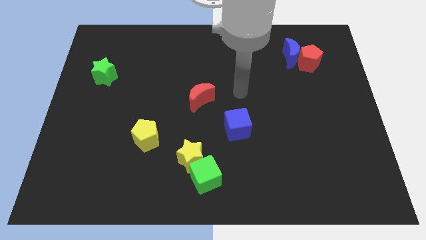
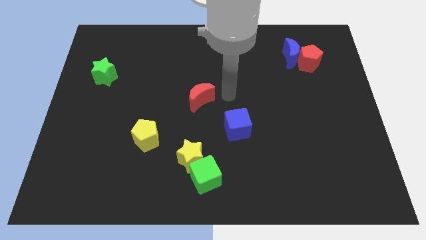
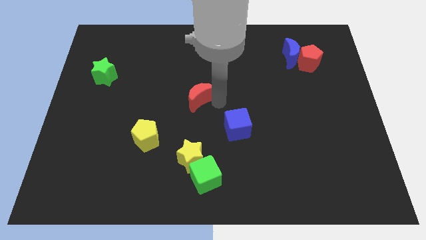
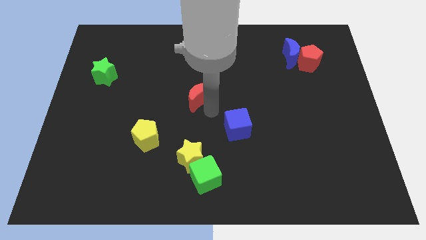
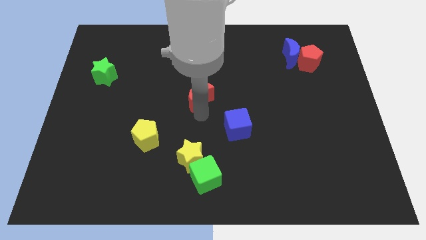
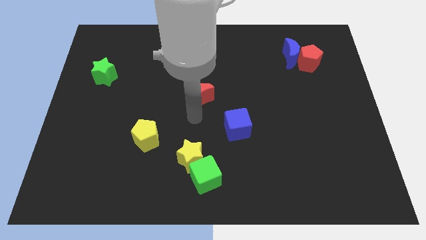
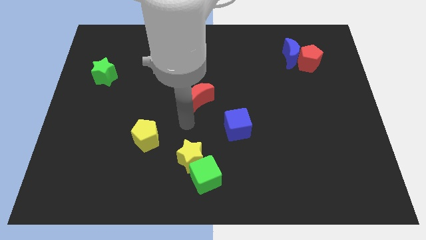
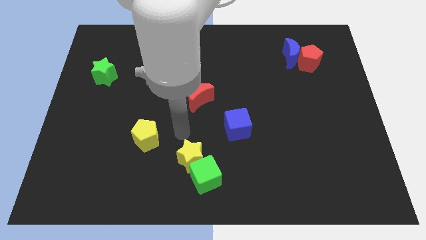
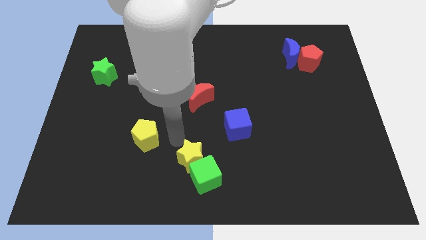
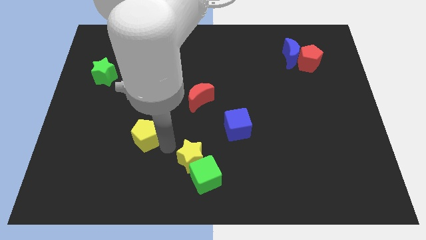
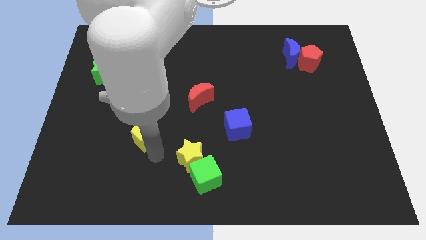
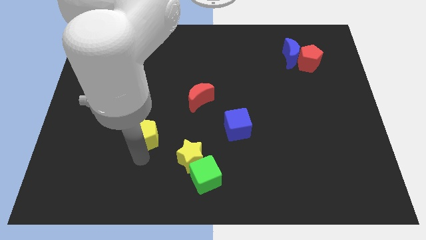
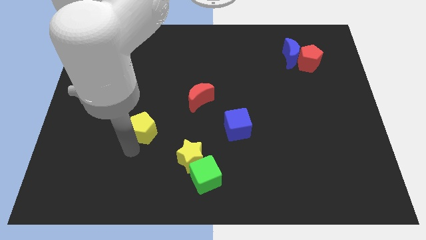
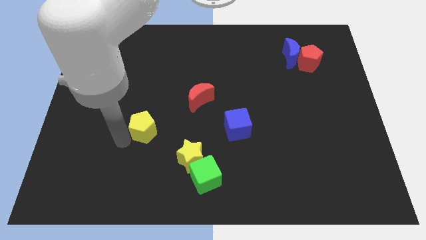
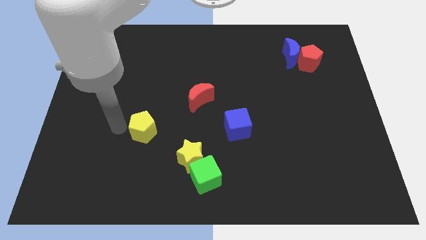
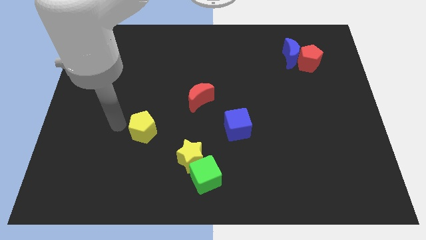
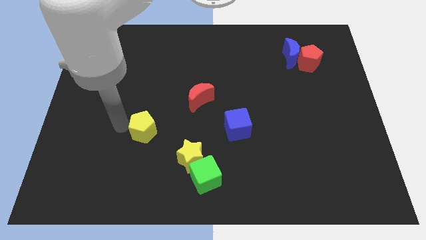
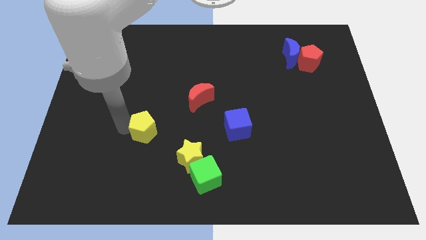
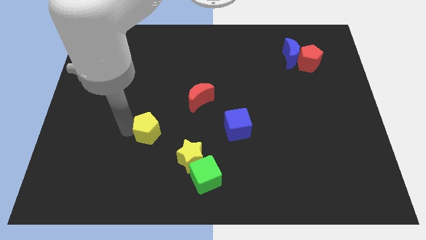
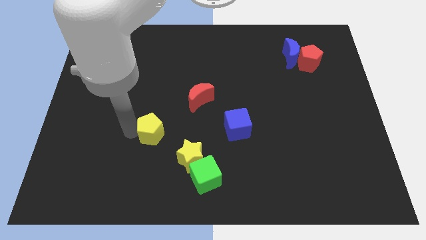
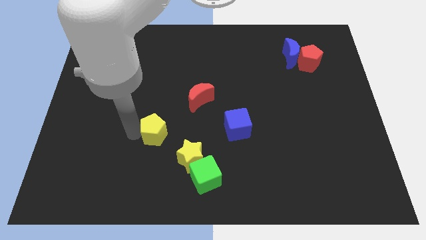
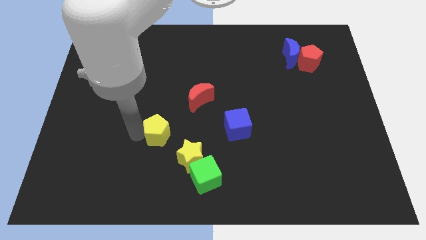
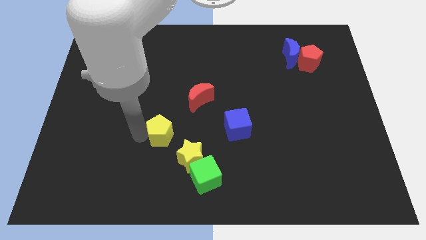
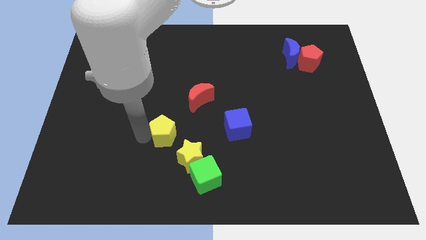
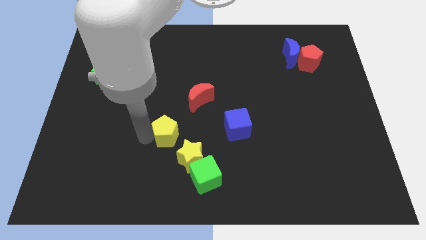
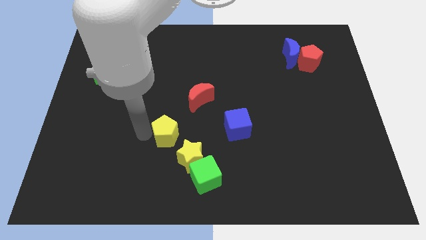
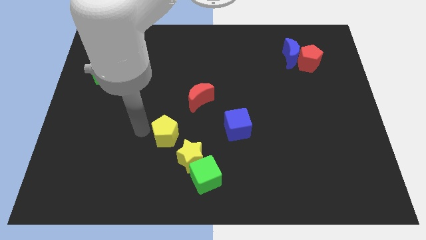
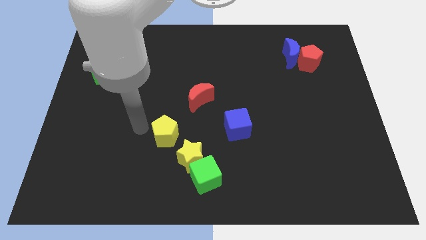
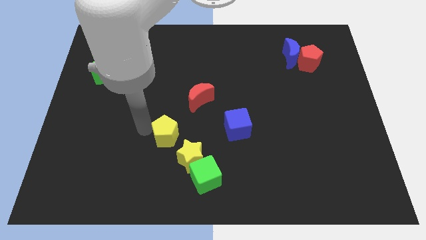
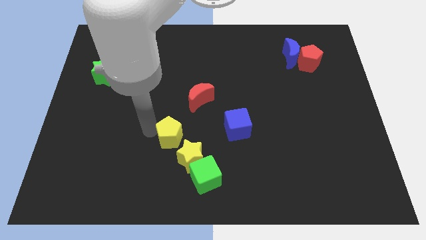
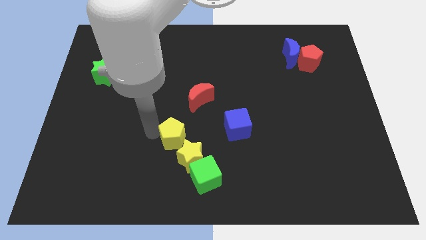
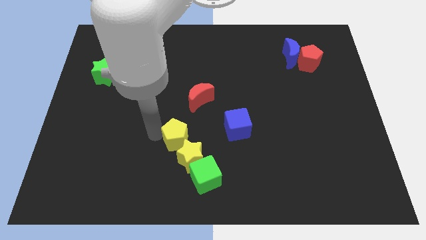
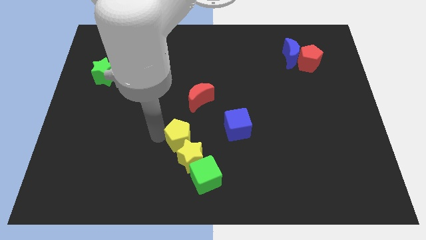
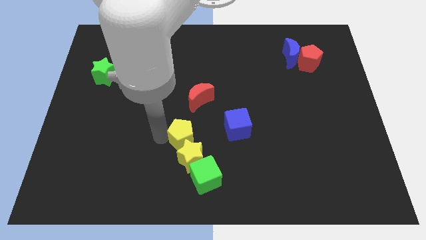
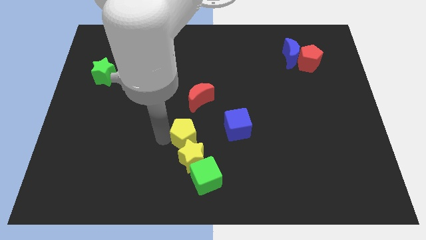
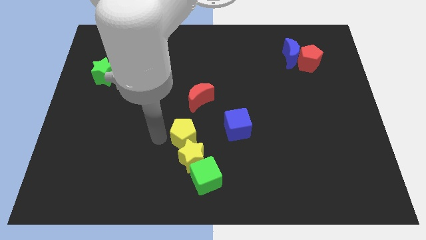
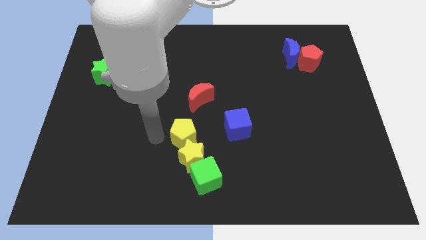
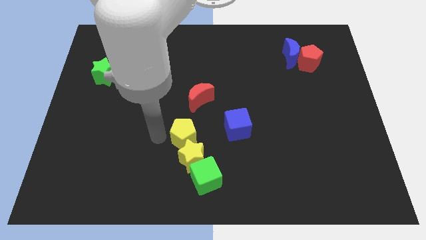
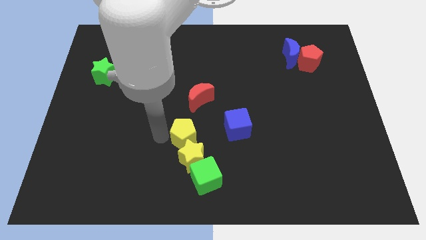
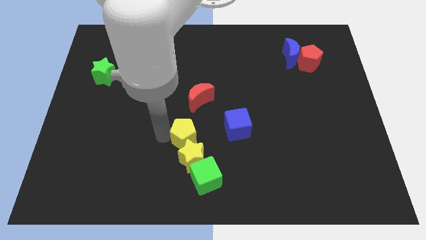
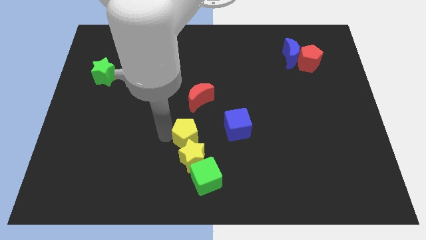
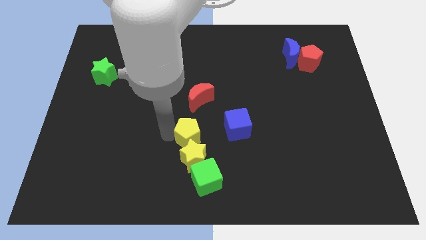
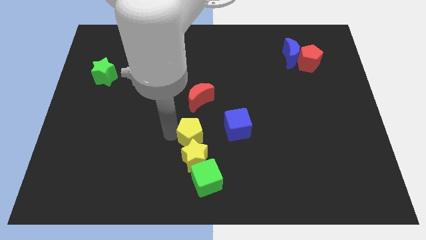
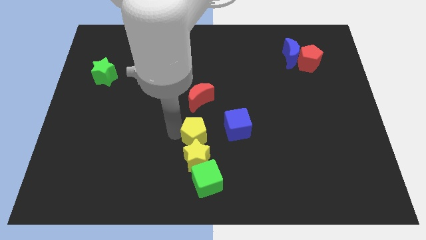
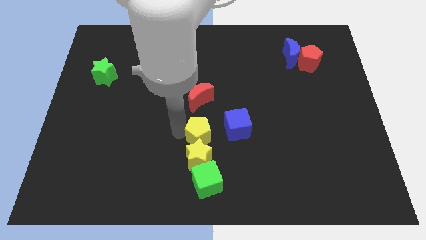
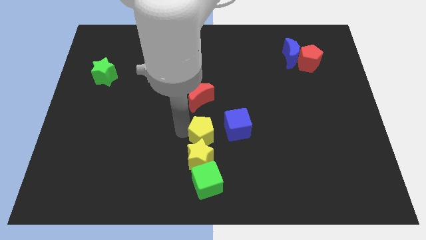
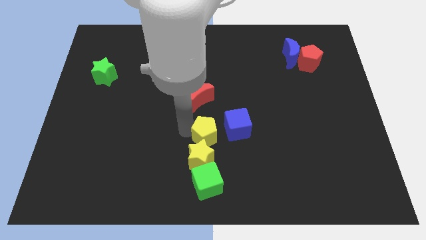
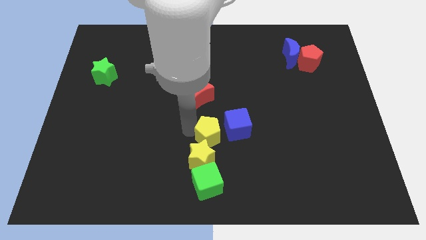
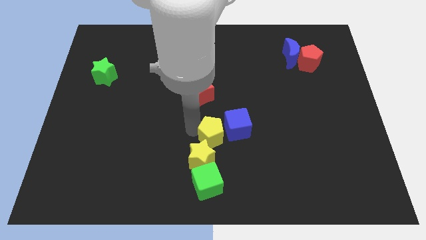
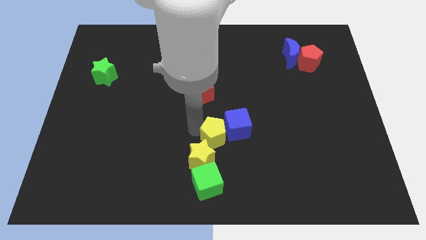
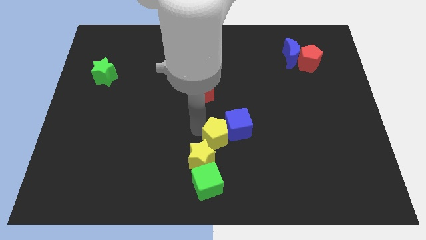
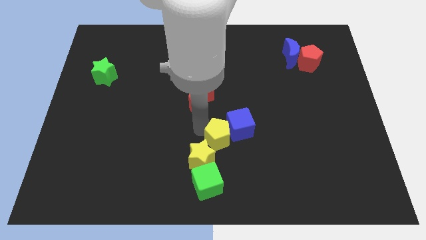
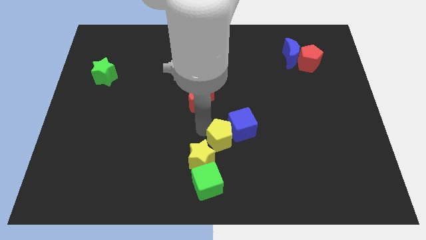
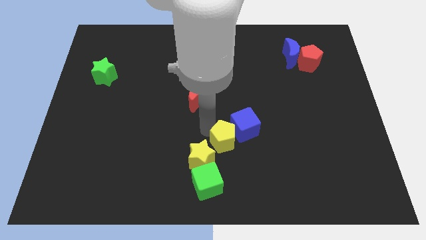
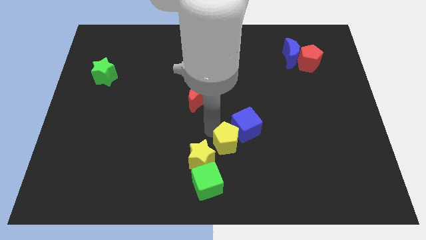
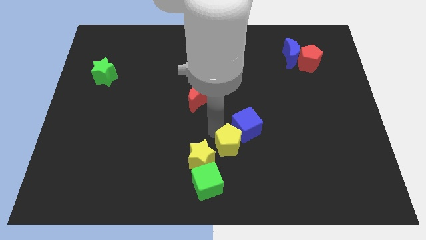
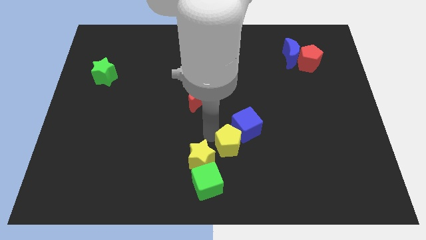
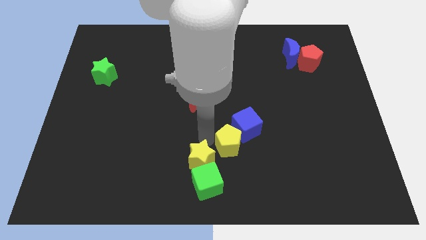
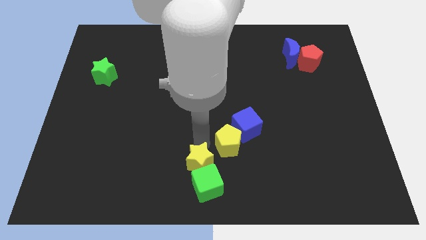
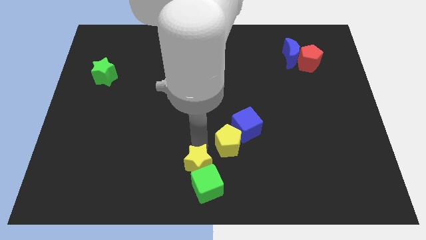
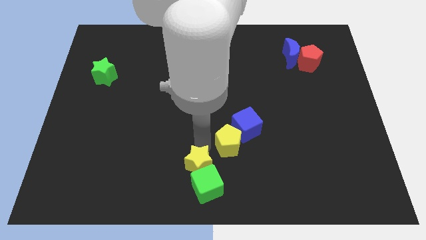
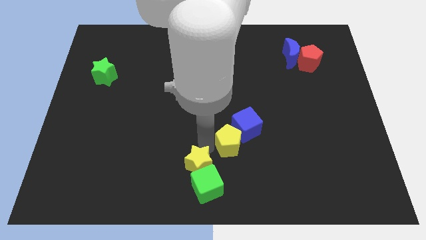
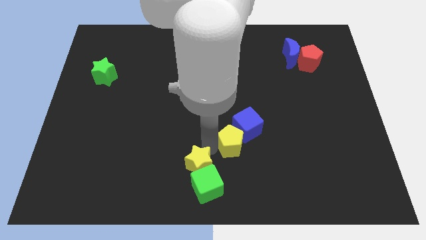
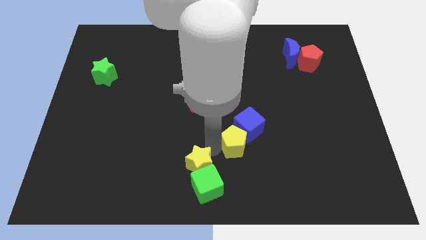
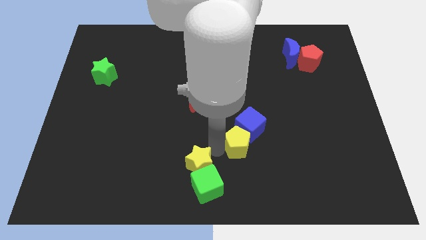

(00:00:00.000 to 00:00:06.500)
push the yellow pentagon to the right

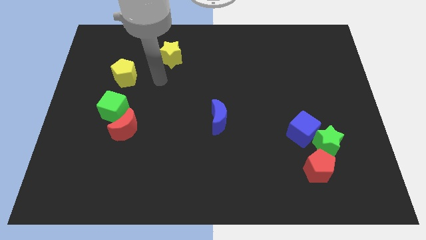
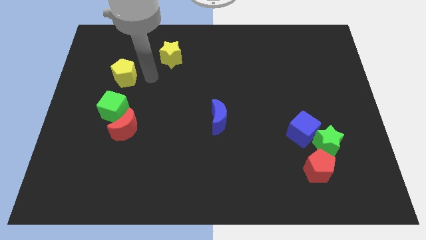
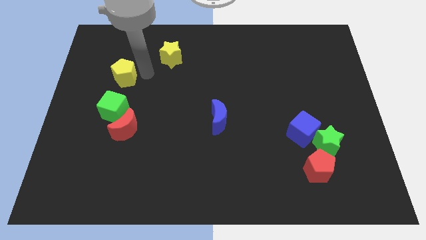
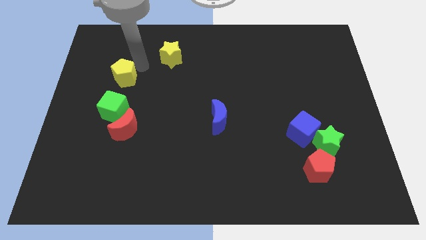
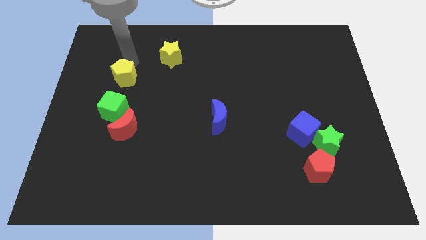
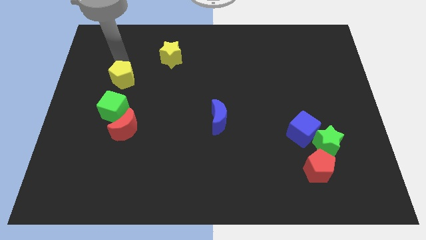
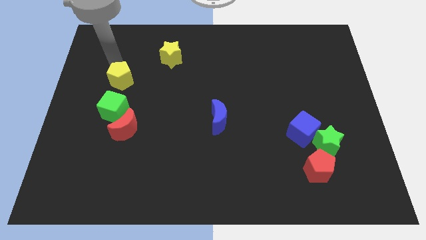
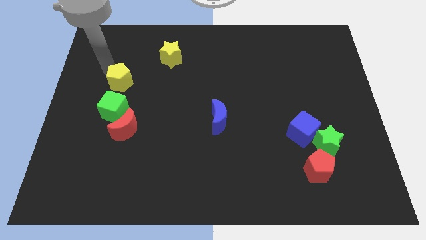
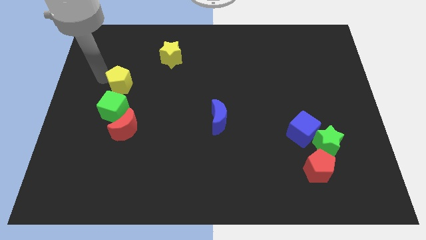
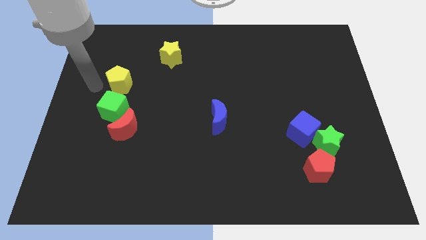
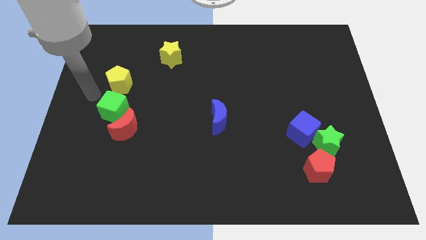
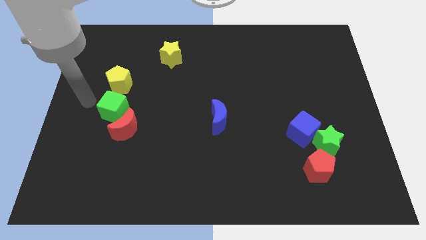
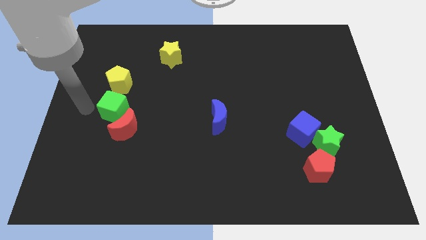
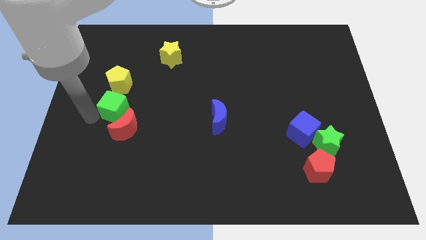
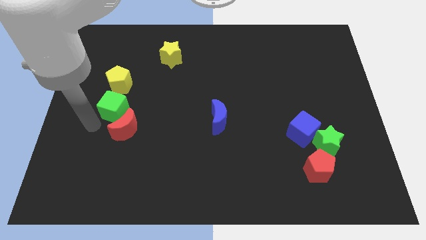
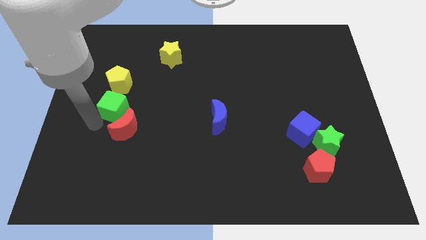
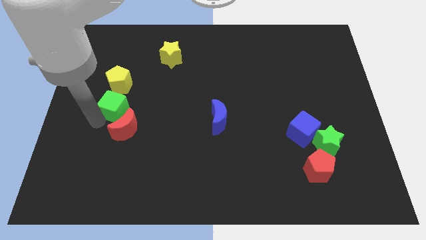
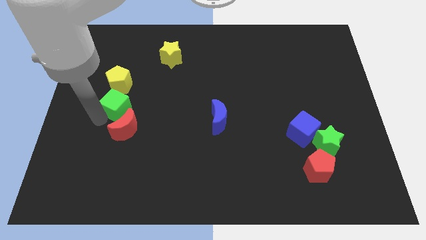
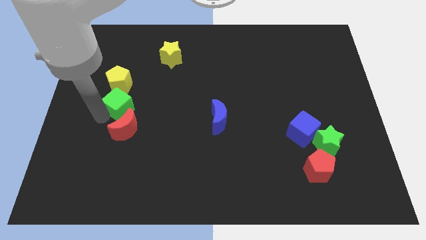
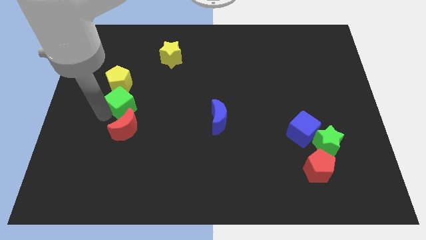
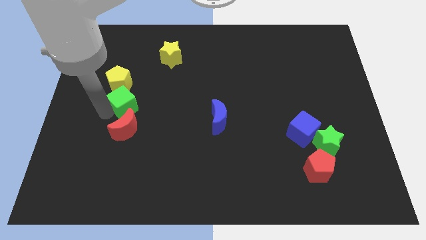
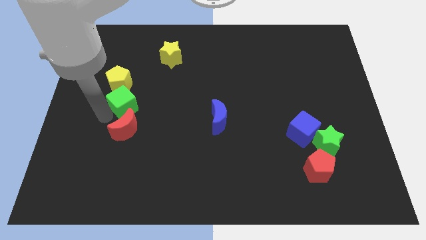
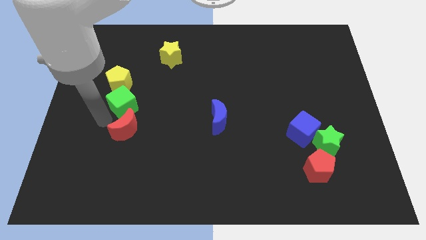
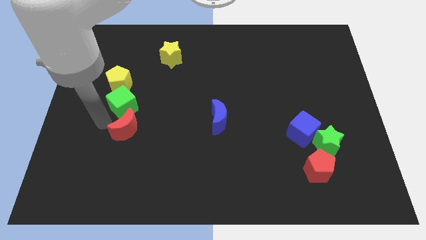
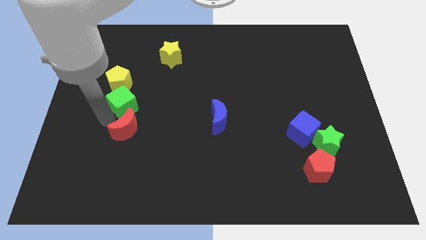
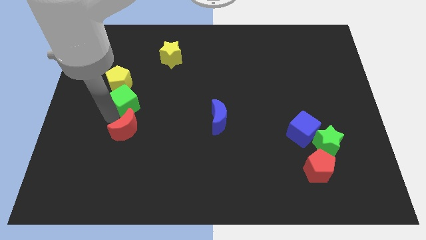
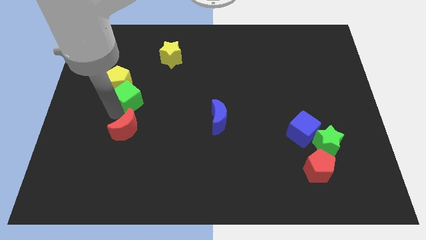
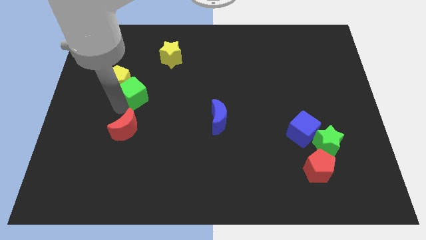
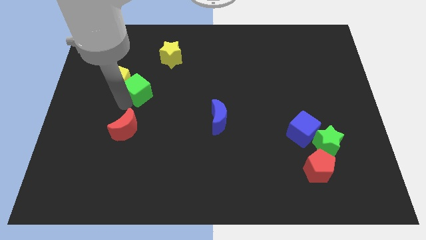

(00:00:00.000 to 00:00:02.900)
slightly push the green cube up and right
